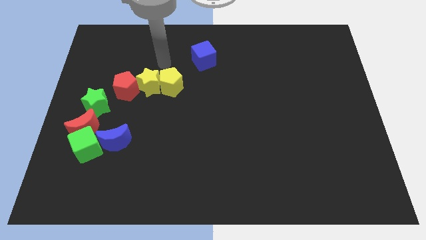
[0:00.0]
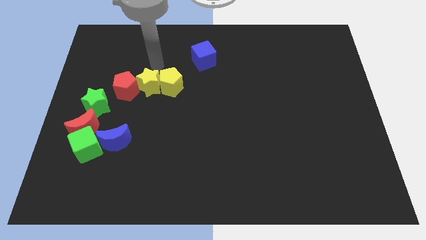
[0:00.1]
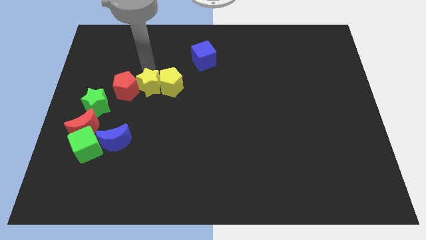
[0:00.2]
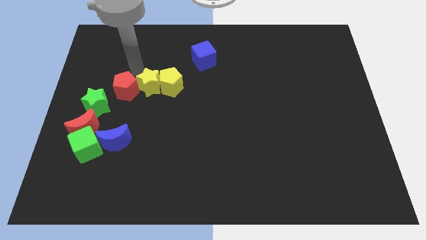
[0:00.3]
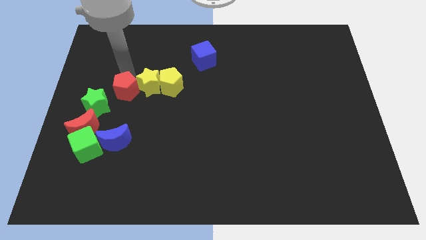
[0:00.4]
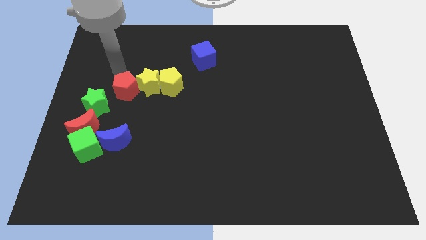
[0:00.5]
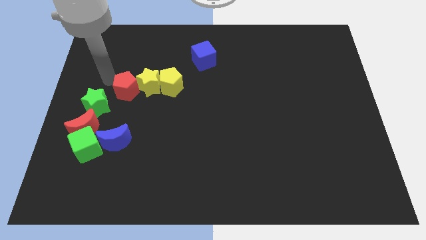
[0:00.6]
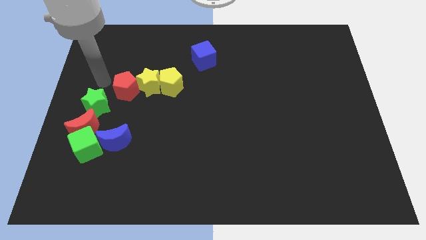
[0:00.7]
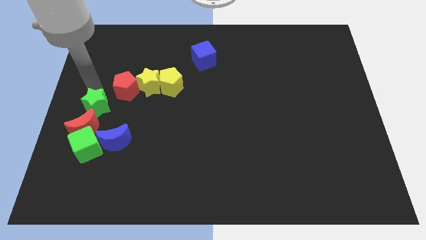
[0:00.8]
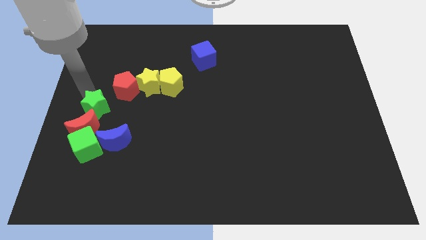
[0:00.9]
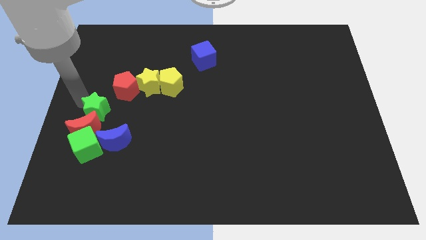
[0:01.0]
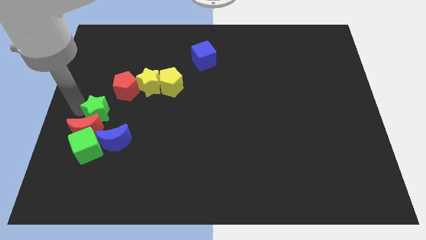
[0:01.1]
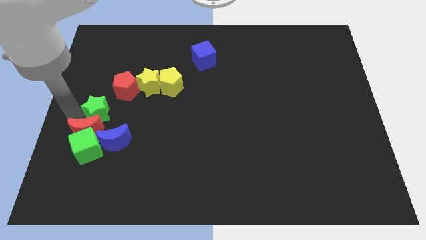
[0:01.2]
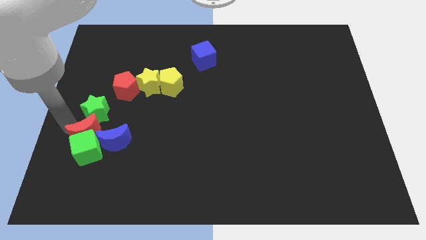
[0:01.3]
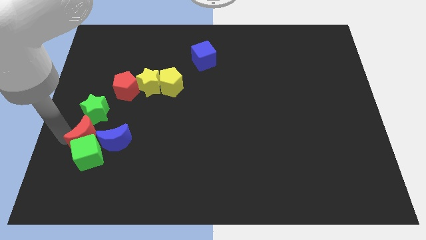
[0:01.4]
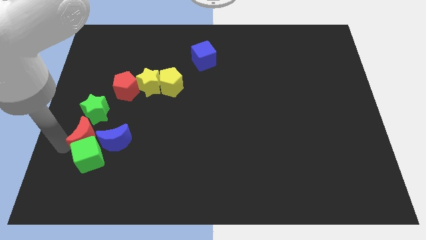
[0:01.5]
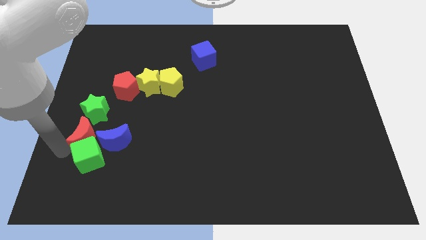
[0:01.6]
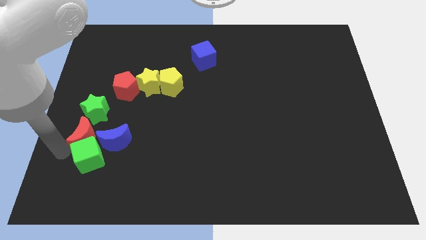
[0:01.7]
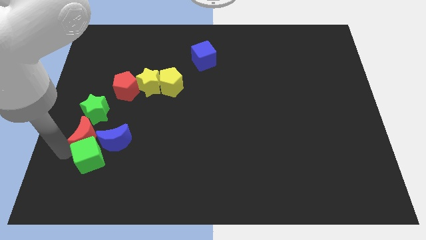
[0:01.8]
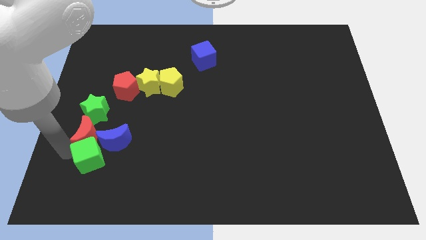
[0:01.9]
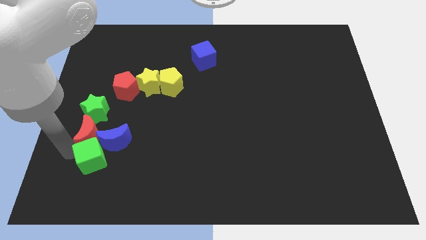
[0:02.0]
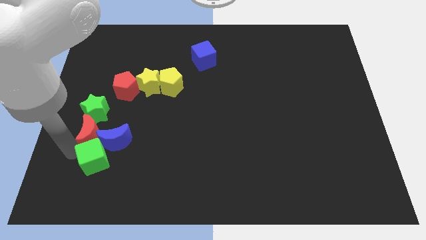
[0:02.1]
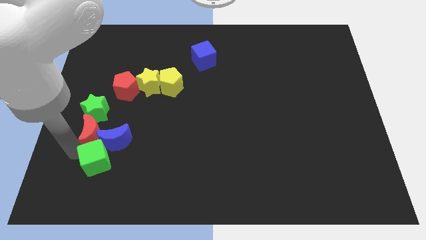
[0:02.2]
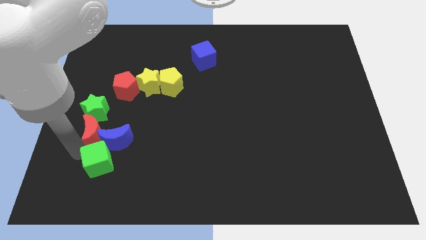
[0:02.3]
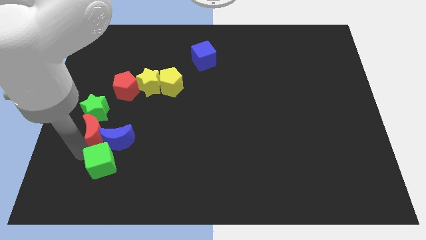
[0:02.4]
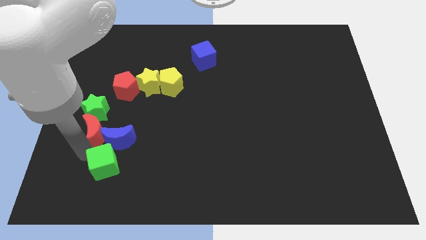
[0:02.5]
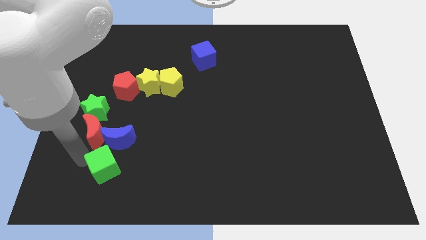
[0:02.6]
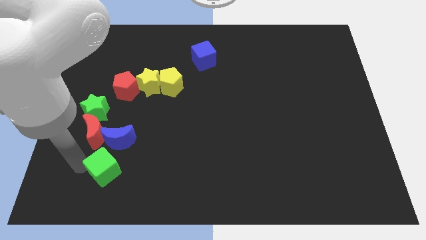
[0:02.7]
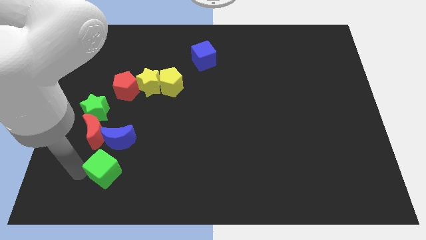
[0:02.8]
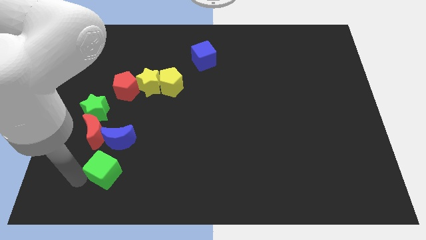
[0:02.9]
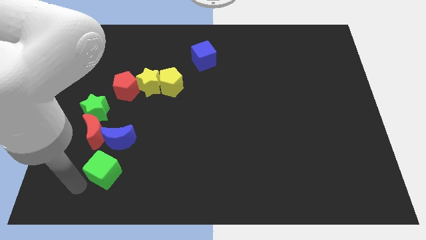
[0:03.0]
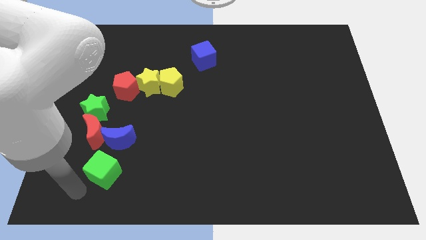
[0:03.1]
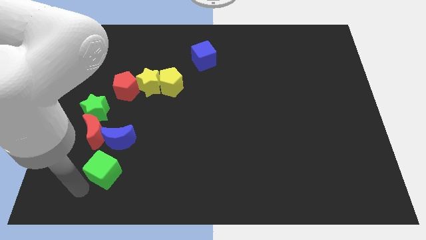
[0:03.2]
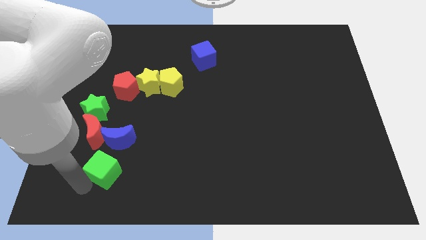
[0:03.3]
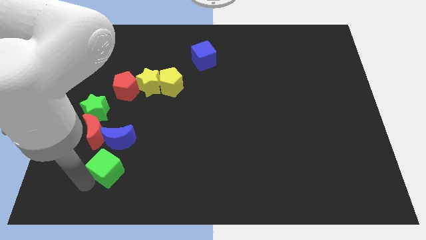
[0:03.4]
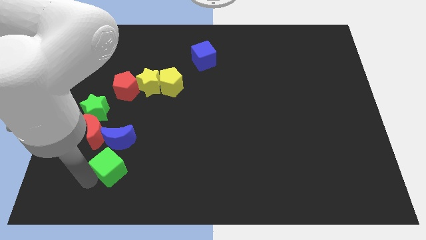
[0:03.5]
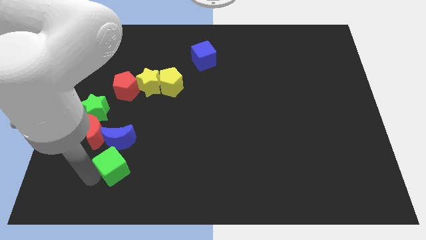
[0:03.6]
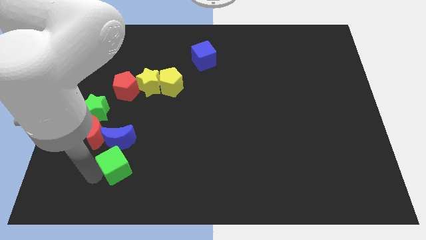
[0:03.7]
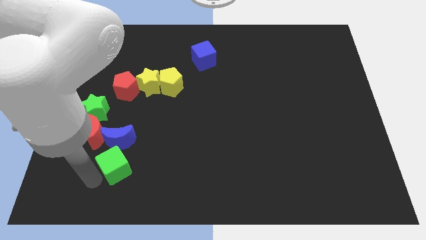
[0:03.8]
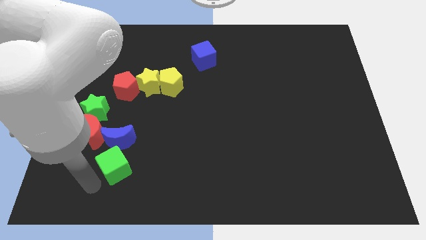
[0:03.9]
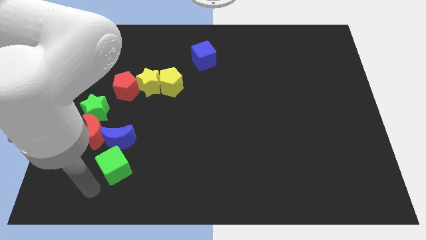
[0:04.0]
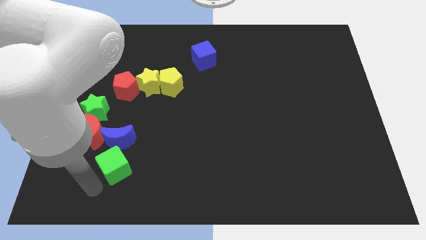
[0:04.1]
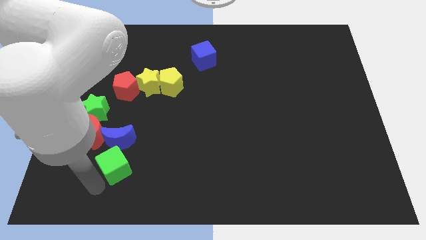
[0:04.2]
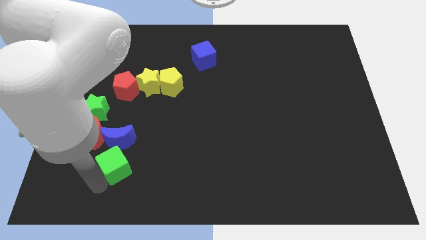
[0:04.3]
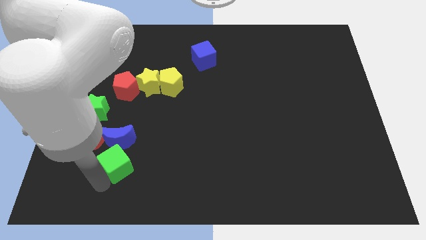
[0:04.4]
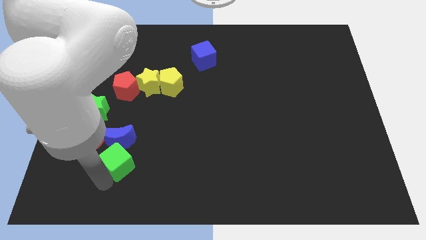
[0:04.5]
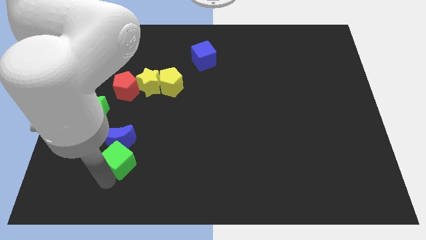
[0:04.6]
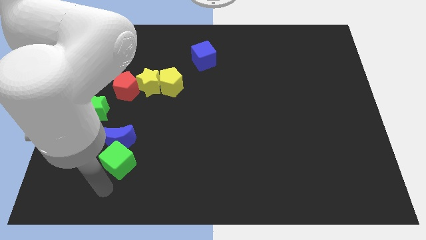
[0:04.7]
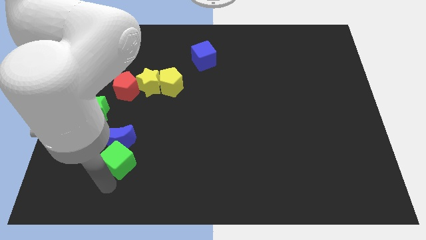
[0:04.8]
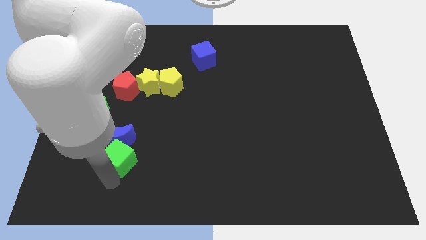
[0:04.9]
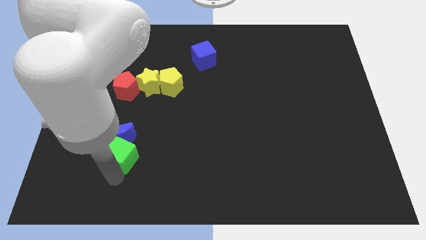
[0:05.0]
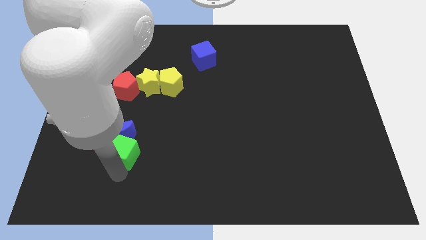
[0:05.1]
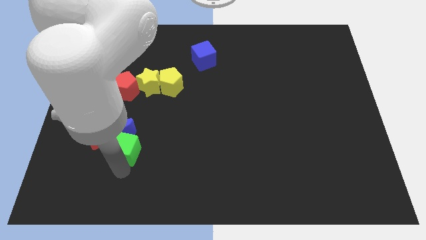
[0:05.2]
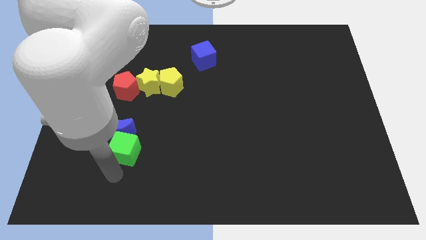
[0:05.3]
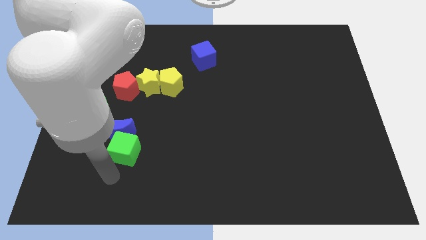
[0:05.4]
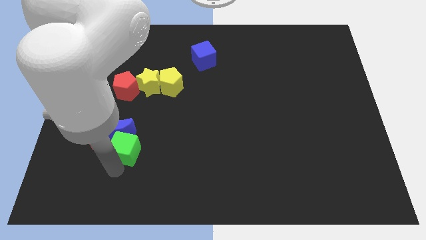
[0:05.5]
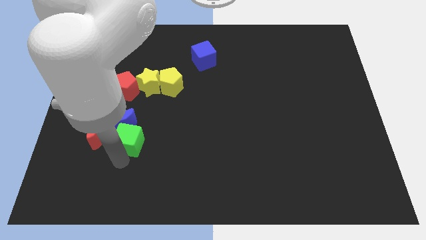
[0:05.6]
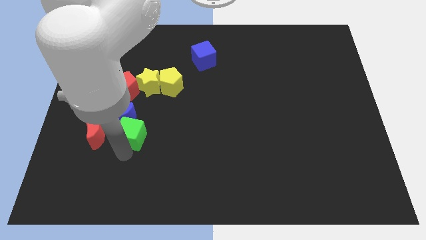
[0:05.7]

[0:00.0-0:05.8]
slide the green cube up and then right somewhat

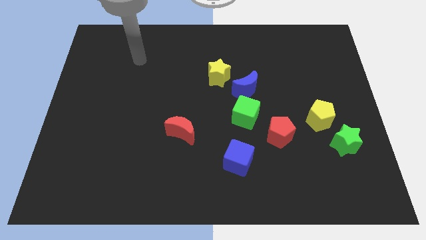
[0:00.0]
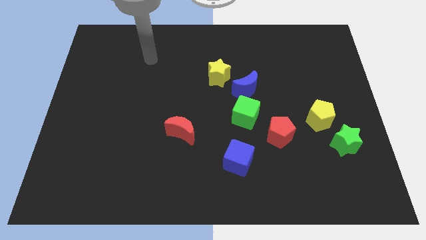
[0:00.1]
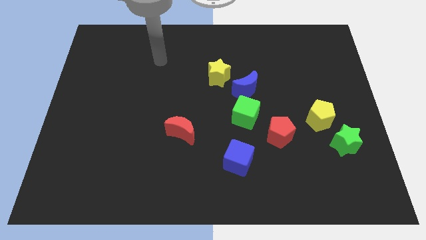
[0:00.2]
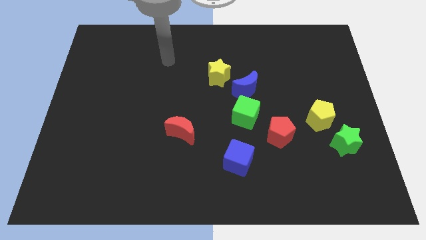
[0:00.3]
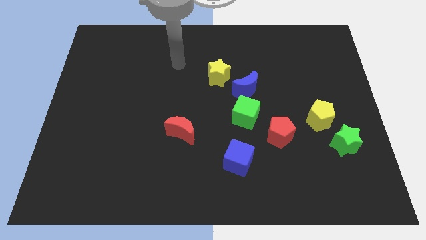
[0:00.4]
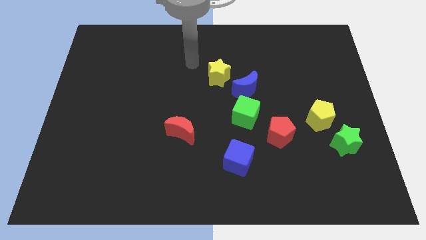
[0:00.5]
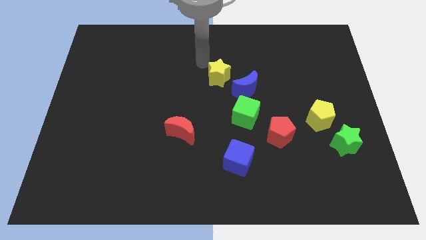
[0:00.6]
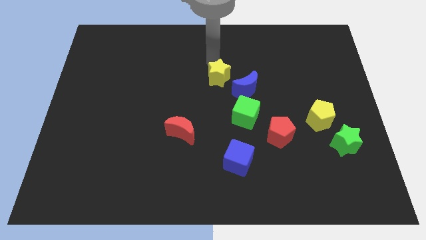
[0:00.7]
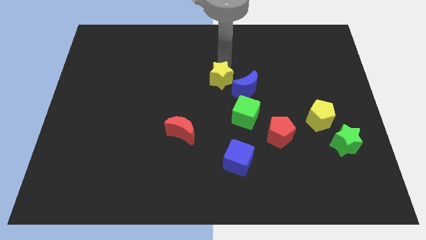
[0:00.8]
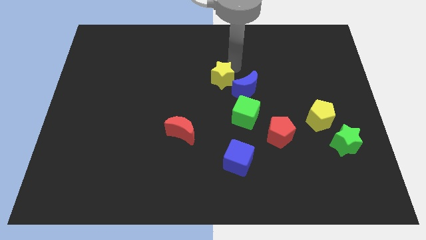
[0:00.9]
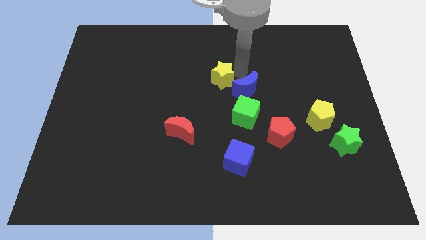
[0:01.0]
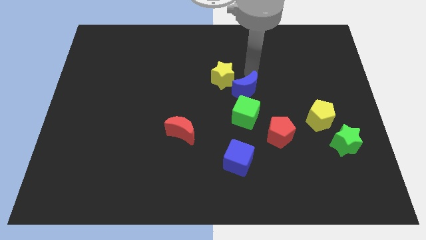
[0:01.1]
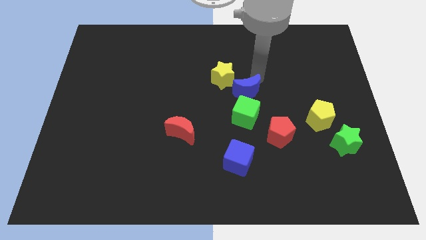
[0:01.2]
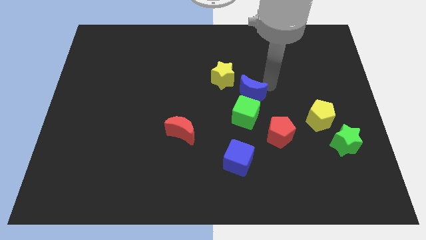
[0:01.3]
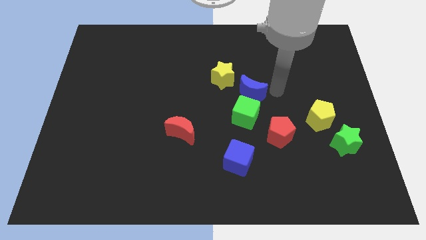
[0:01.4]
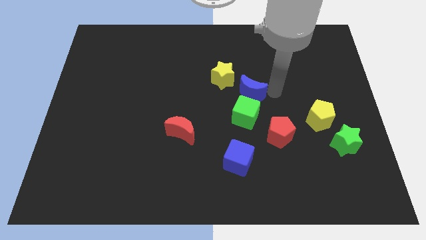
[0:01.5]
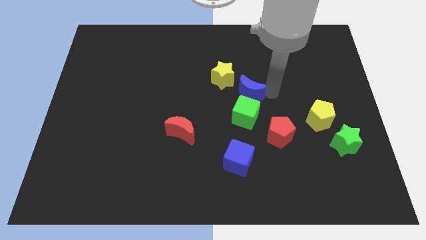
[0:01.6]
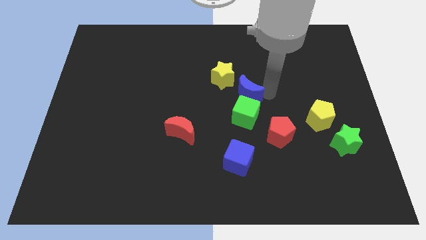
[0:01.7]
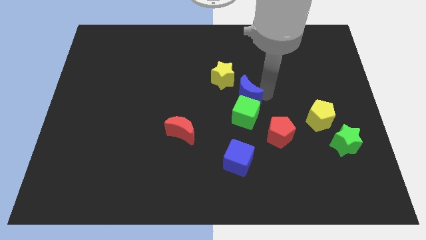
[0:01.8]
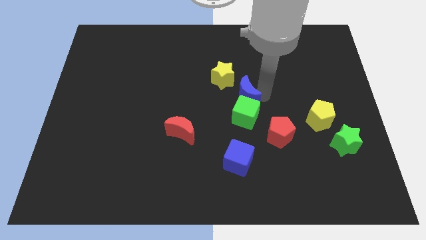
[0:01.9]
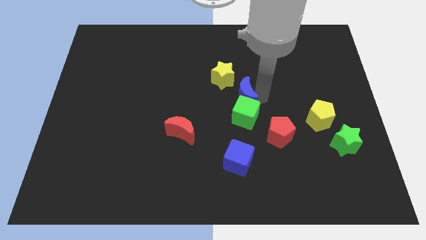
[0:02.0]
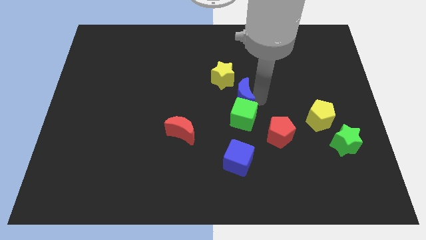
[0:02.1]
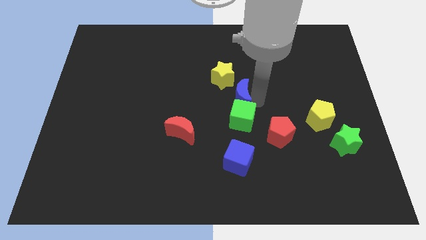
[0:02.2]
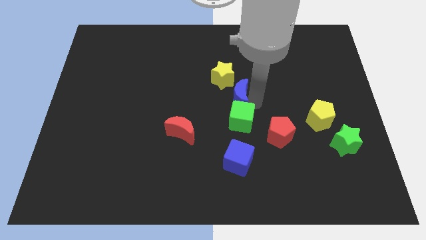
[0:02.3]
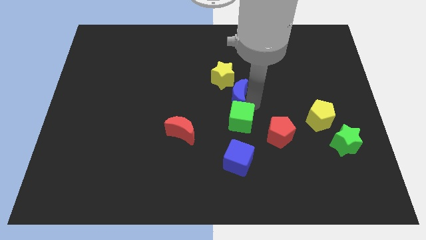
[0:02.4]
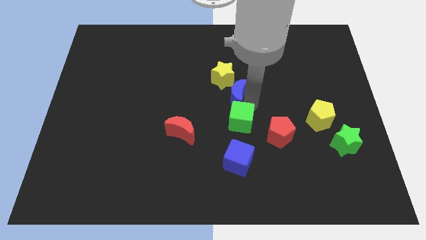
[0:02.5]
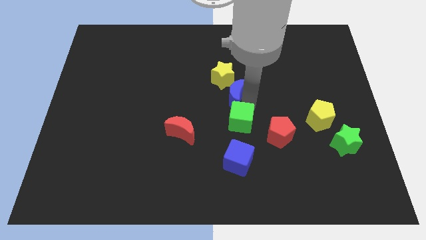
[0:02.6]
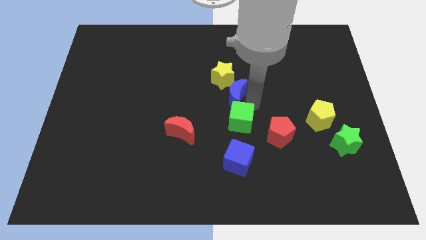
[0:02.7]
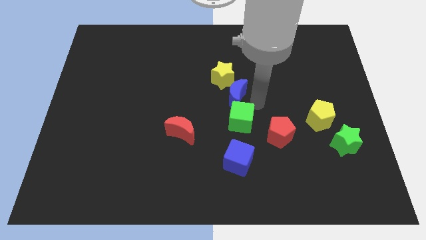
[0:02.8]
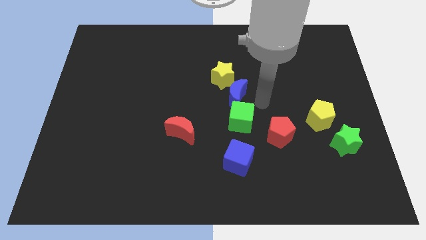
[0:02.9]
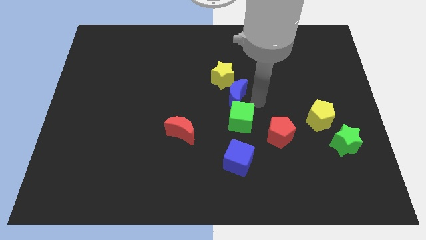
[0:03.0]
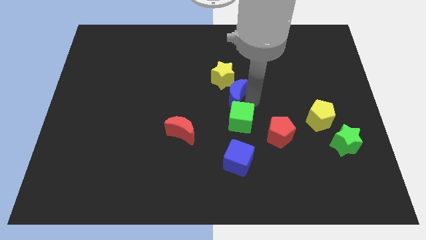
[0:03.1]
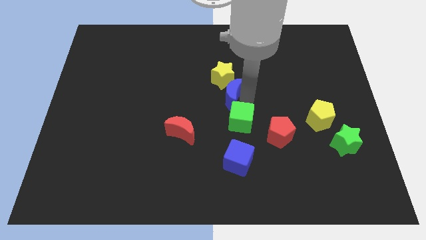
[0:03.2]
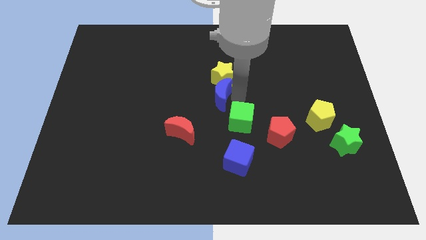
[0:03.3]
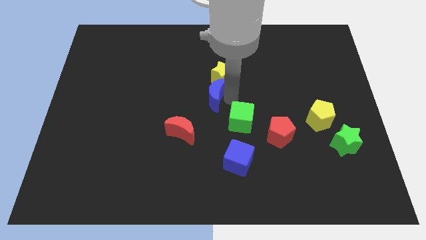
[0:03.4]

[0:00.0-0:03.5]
push the blue moon to the left somewhat
